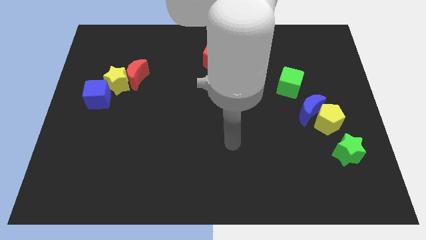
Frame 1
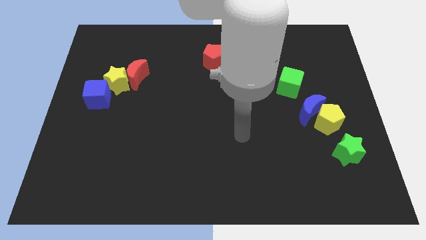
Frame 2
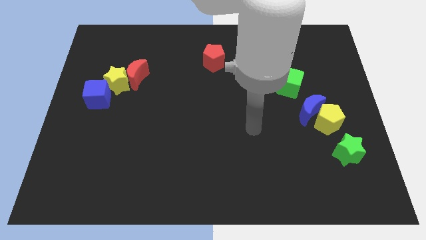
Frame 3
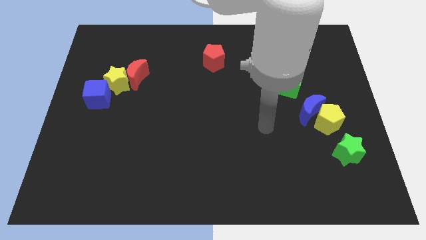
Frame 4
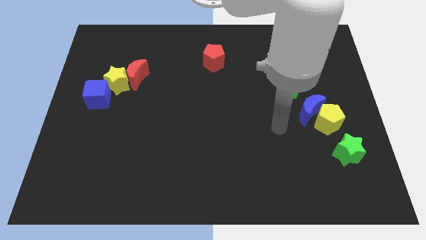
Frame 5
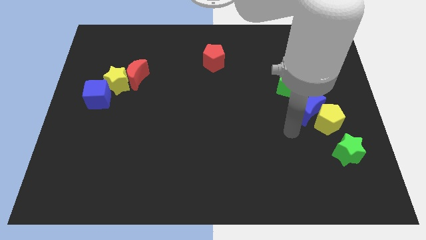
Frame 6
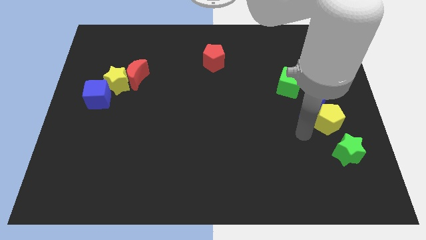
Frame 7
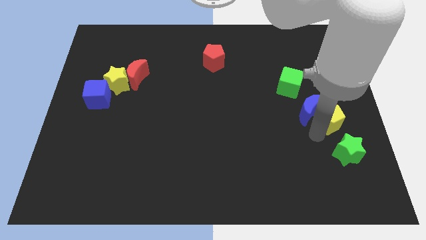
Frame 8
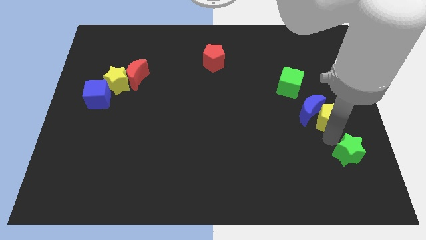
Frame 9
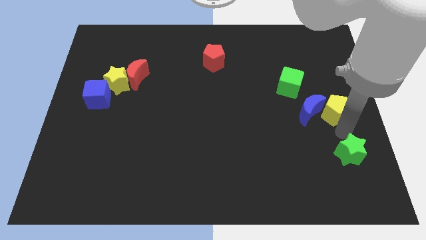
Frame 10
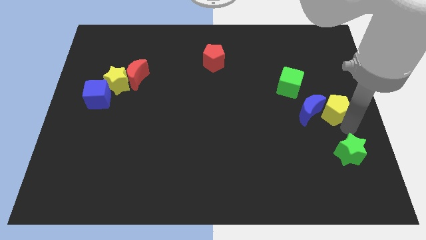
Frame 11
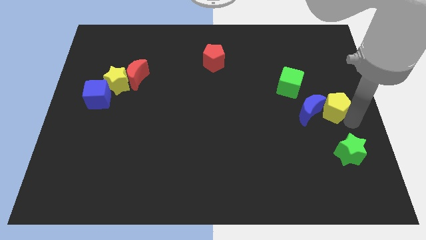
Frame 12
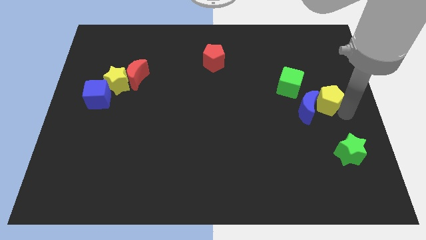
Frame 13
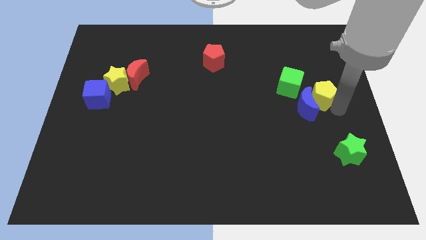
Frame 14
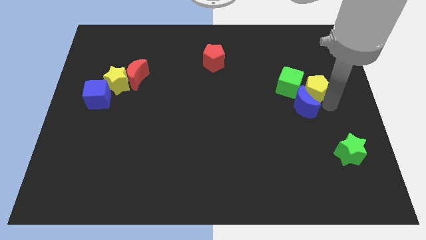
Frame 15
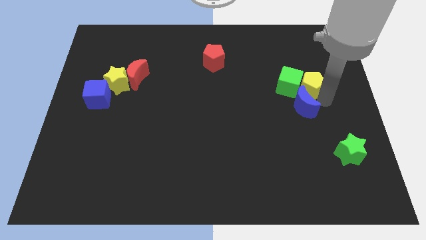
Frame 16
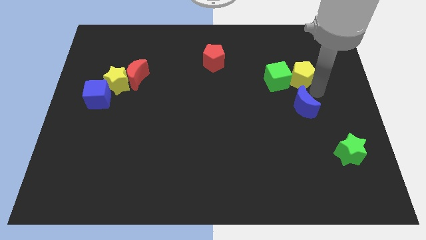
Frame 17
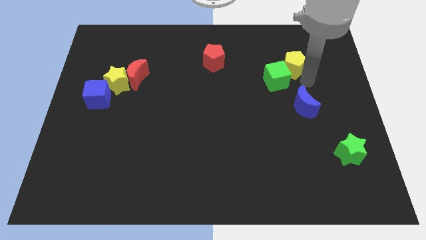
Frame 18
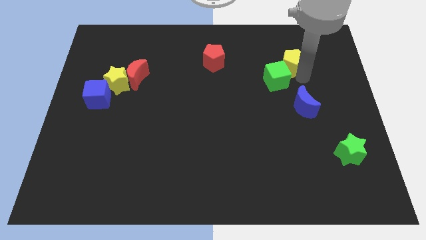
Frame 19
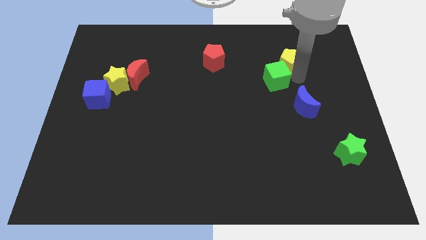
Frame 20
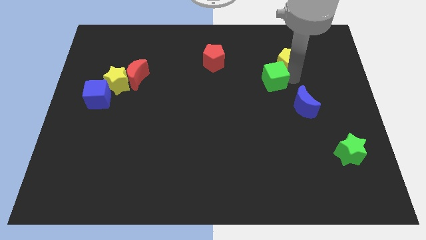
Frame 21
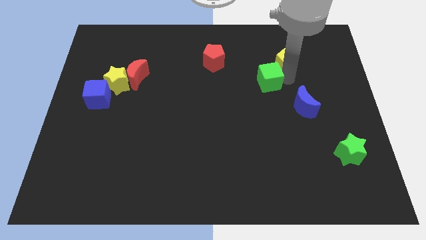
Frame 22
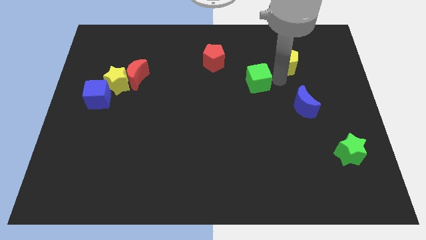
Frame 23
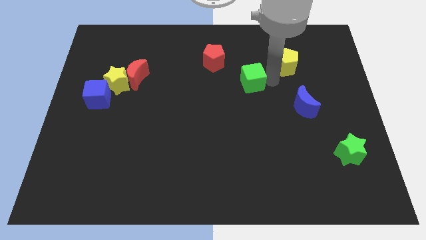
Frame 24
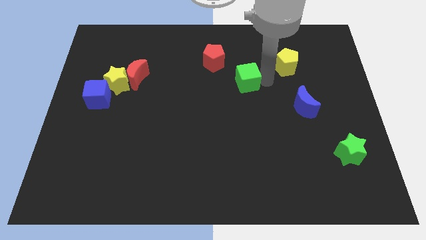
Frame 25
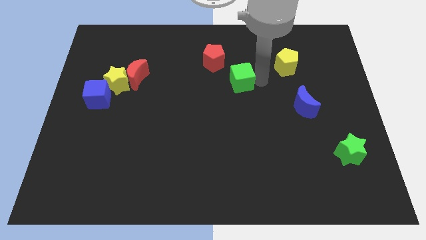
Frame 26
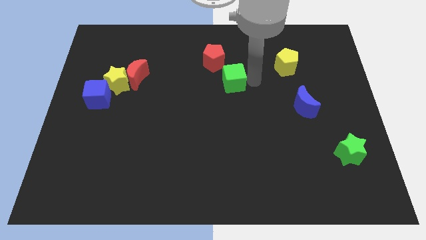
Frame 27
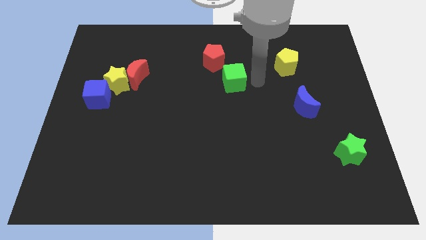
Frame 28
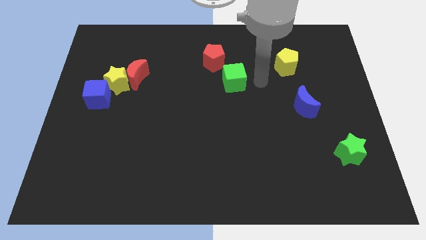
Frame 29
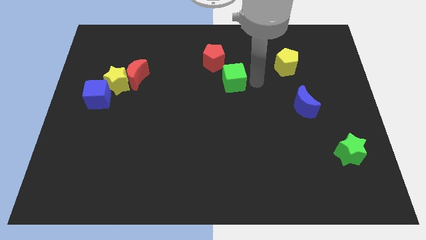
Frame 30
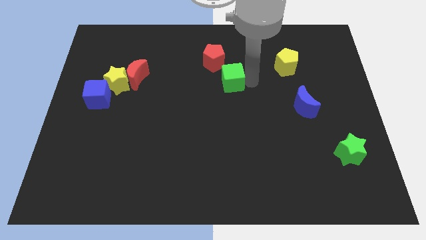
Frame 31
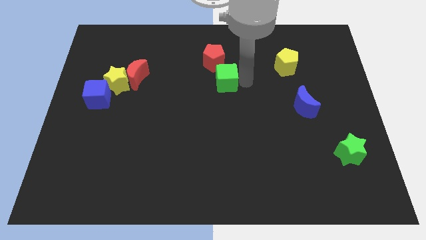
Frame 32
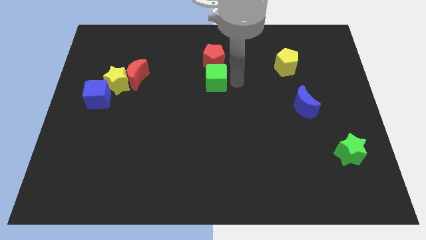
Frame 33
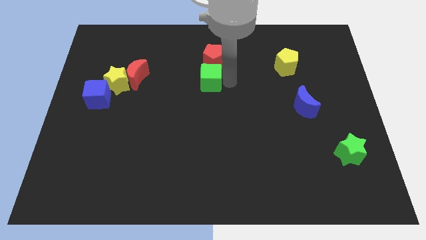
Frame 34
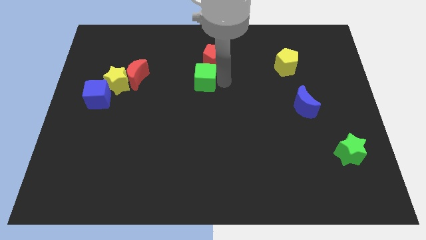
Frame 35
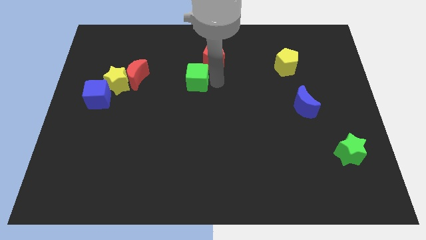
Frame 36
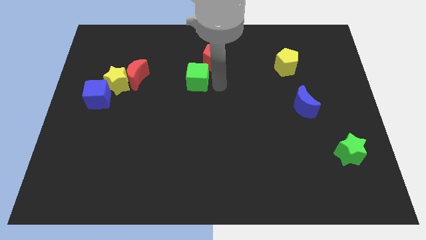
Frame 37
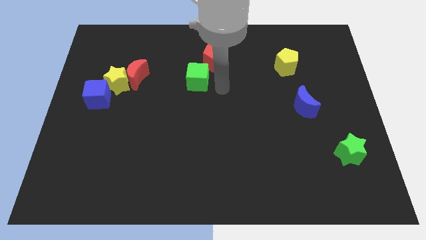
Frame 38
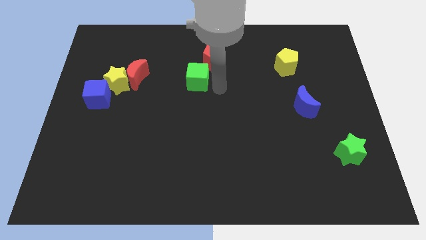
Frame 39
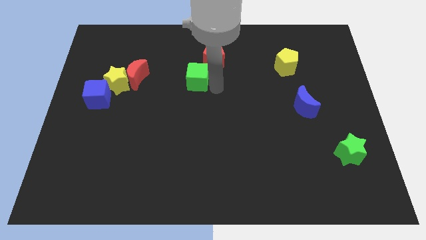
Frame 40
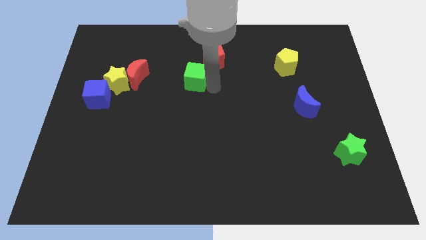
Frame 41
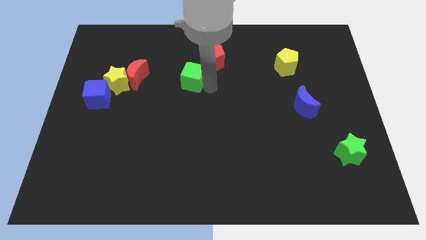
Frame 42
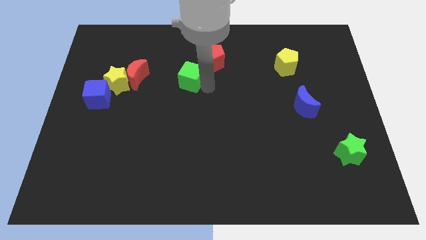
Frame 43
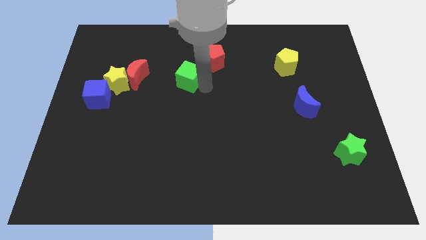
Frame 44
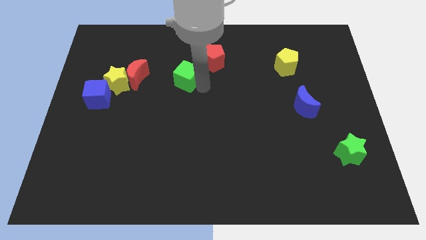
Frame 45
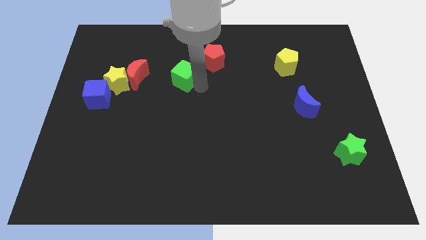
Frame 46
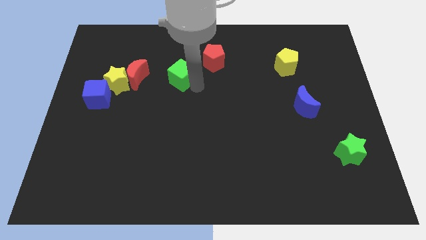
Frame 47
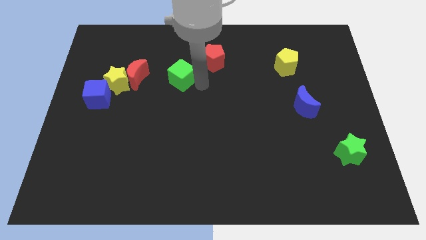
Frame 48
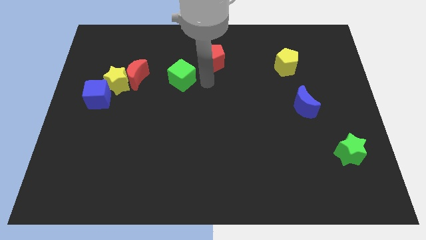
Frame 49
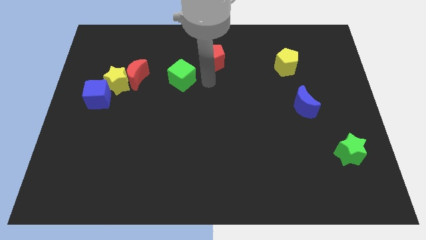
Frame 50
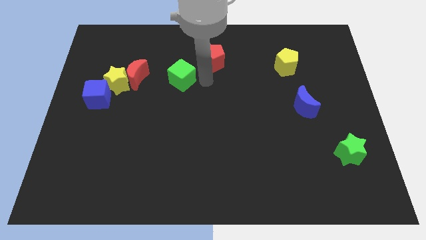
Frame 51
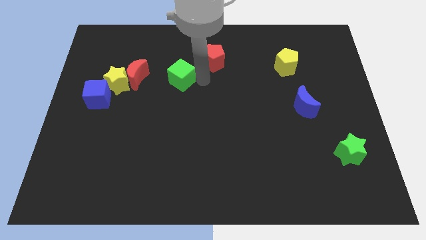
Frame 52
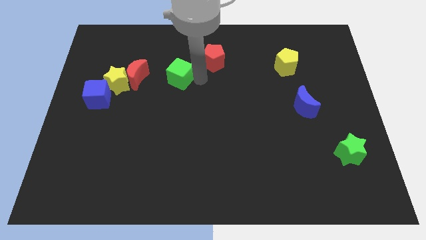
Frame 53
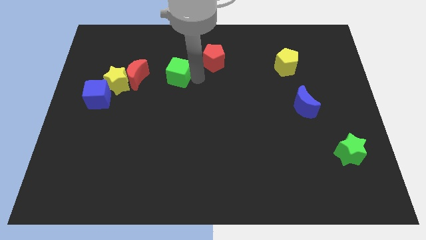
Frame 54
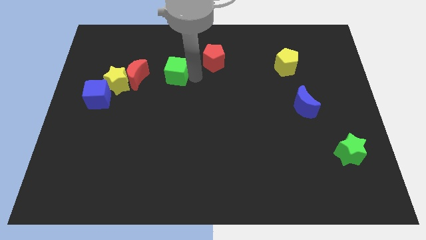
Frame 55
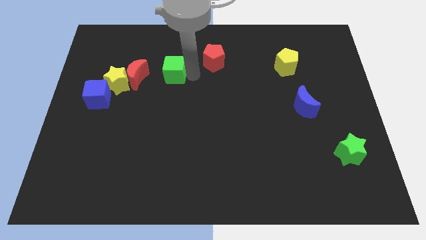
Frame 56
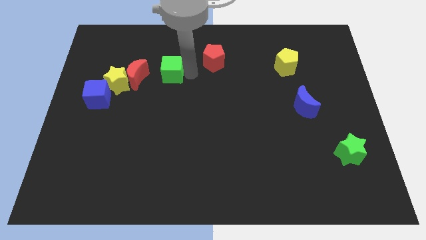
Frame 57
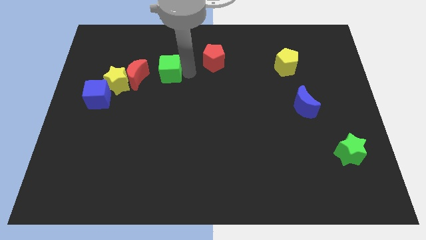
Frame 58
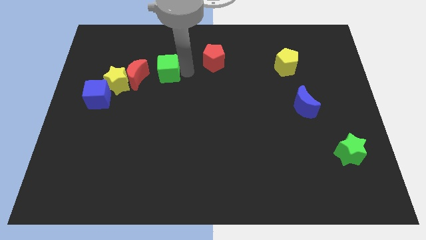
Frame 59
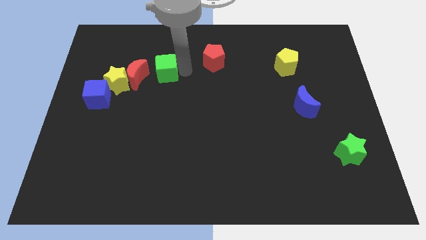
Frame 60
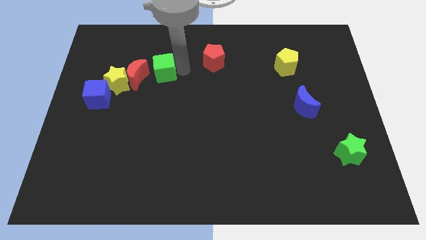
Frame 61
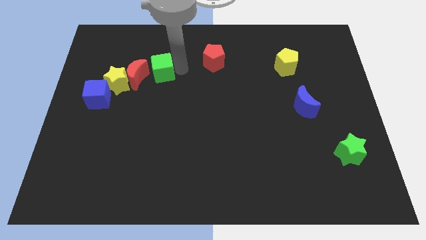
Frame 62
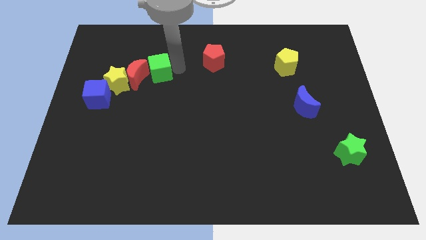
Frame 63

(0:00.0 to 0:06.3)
move the green cube close to the red moon

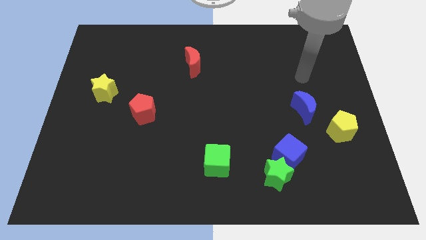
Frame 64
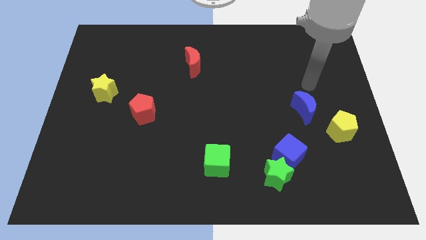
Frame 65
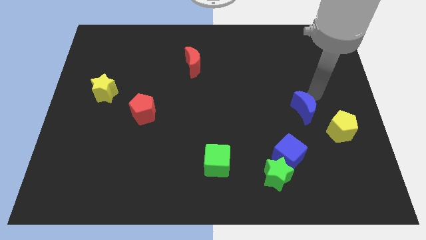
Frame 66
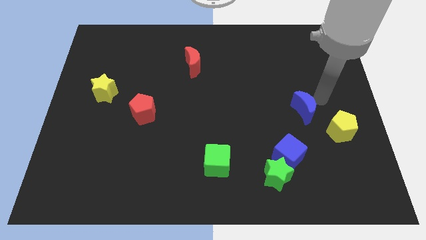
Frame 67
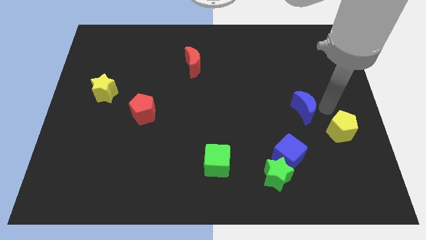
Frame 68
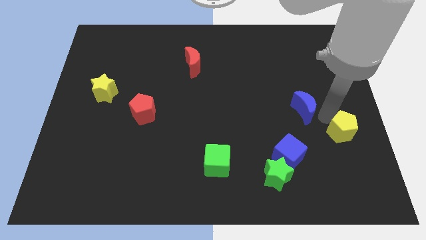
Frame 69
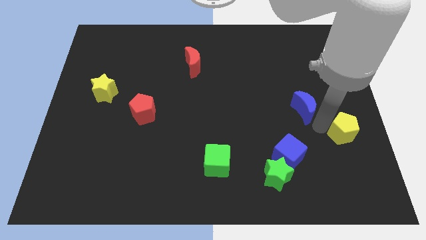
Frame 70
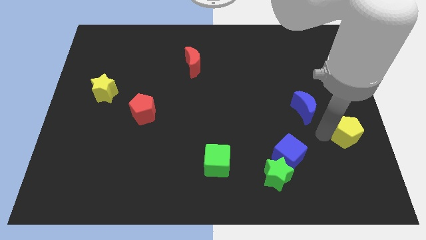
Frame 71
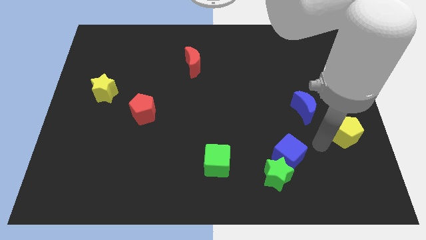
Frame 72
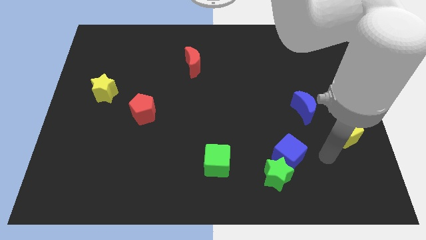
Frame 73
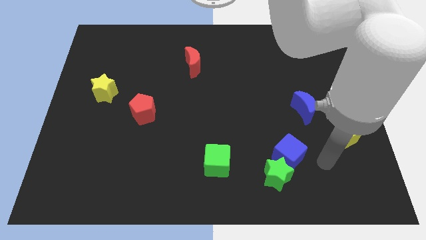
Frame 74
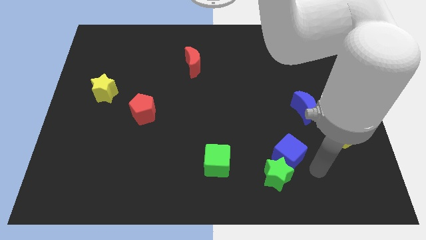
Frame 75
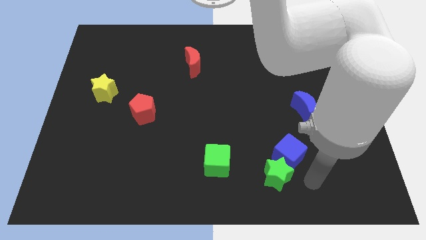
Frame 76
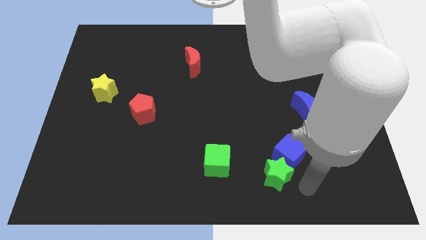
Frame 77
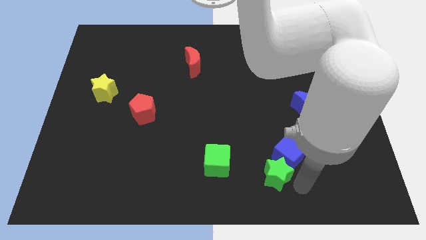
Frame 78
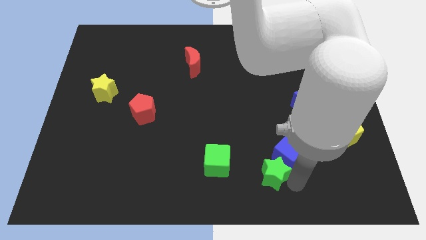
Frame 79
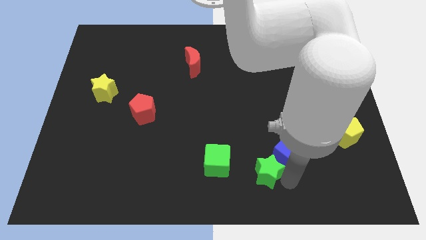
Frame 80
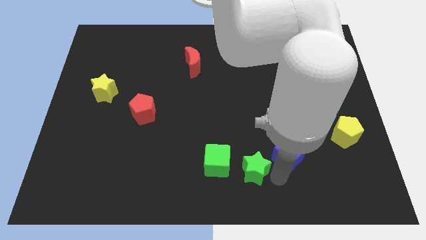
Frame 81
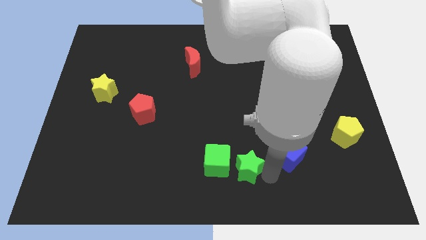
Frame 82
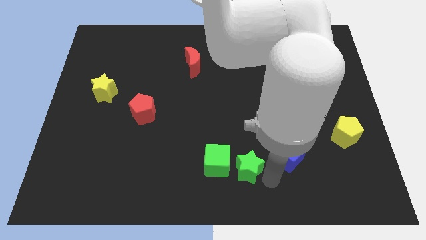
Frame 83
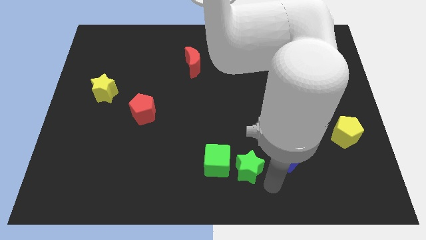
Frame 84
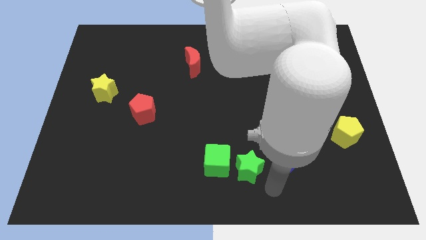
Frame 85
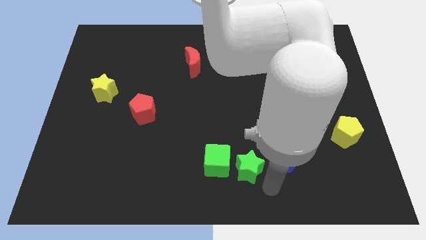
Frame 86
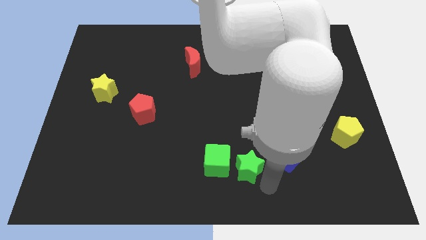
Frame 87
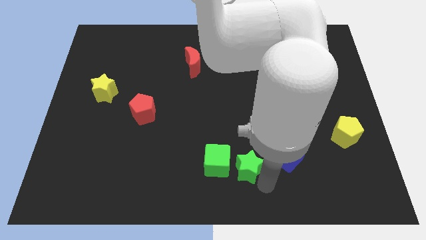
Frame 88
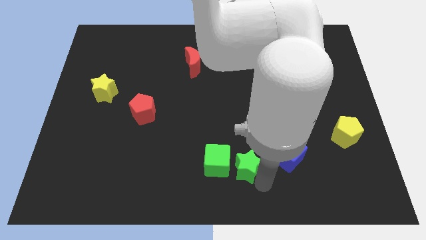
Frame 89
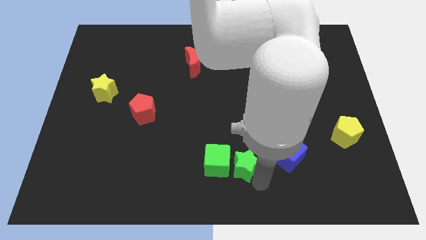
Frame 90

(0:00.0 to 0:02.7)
move the green star next to the green cube
